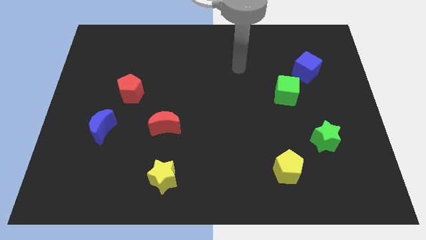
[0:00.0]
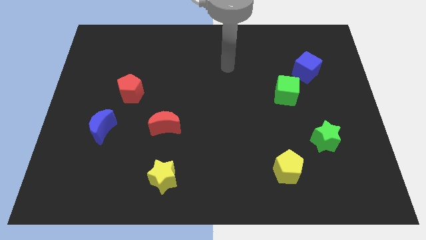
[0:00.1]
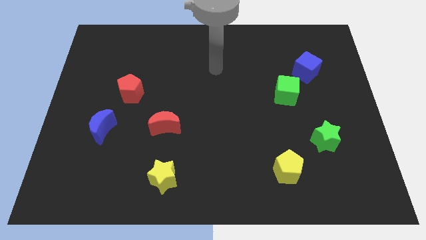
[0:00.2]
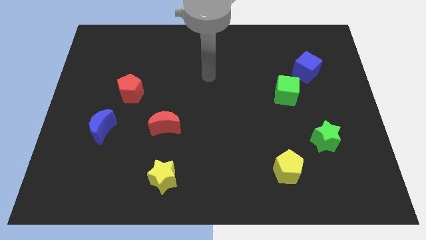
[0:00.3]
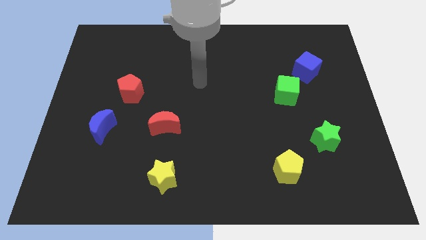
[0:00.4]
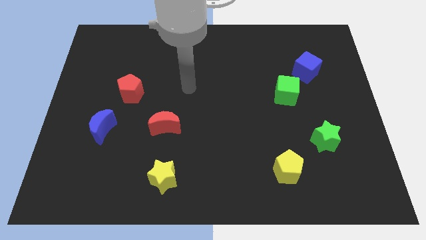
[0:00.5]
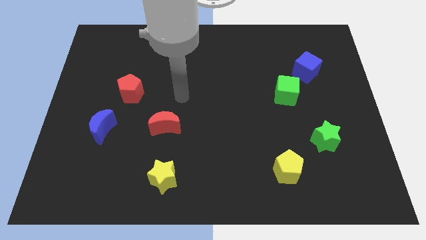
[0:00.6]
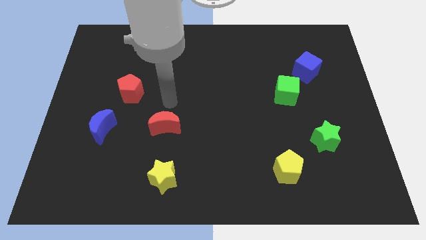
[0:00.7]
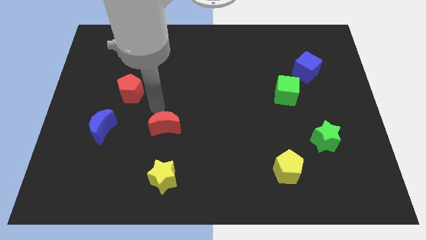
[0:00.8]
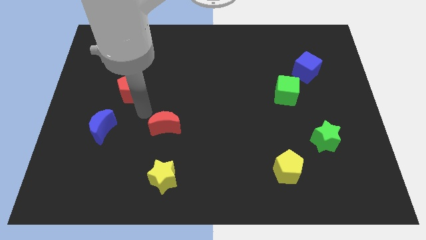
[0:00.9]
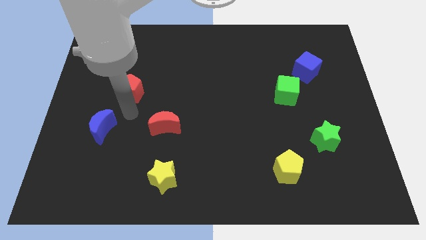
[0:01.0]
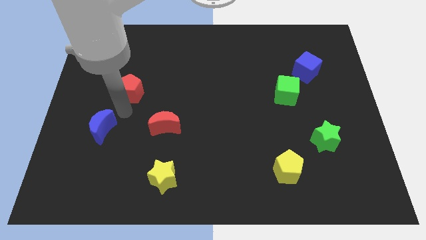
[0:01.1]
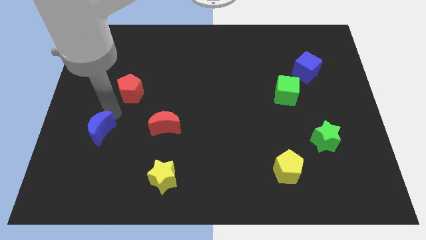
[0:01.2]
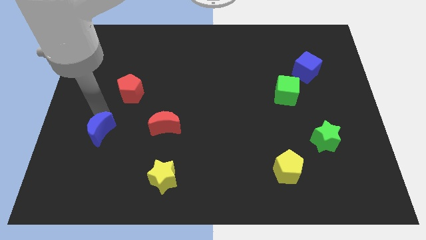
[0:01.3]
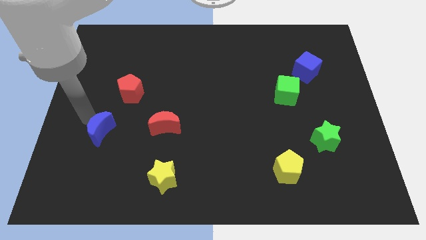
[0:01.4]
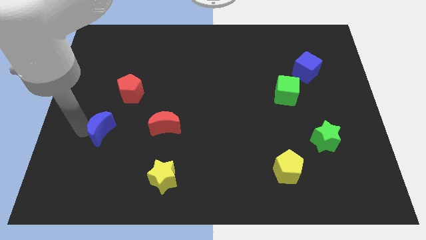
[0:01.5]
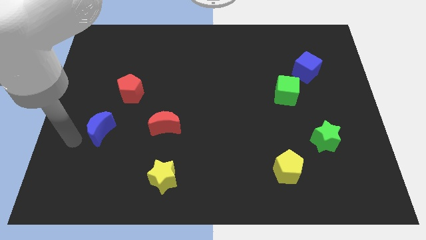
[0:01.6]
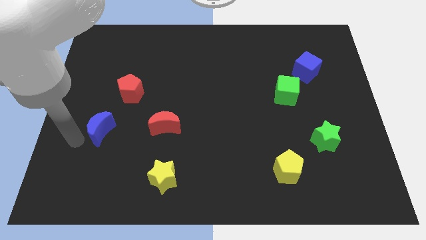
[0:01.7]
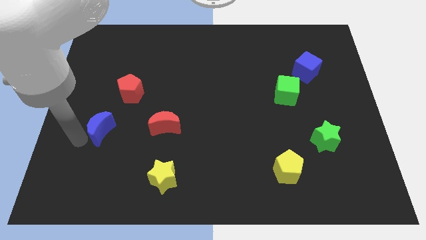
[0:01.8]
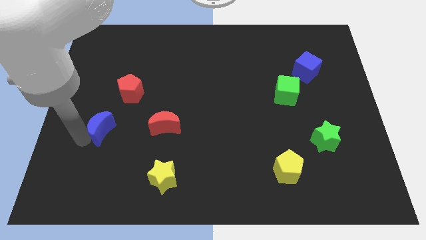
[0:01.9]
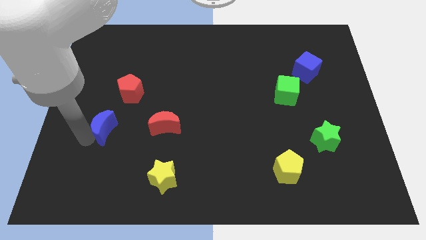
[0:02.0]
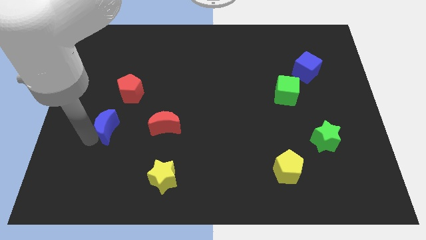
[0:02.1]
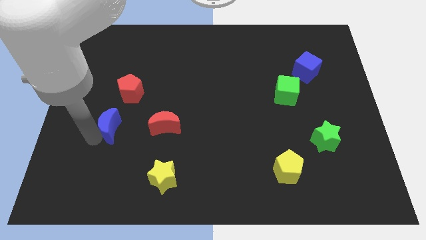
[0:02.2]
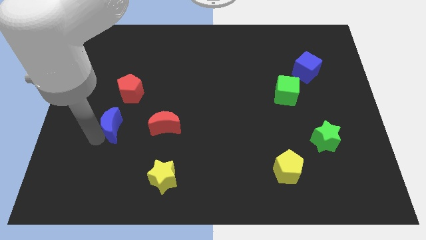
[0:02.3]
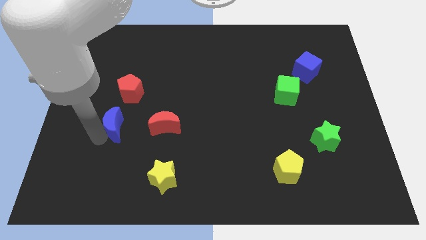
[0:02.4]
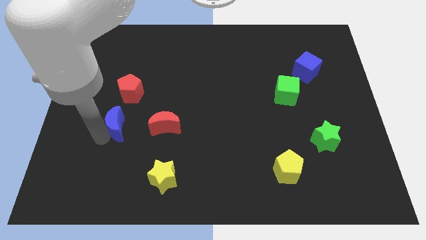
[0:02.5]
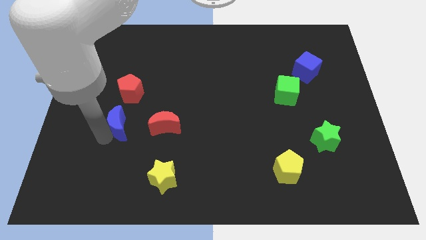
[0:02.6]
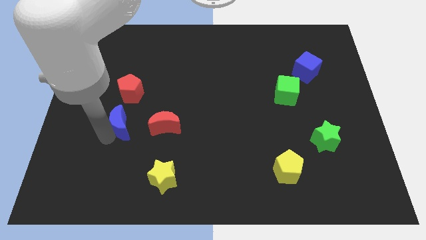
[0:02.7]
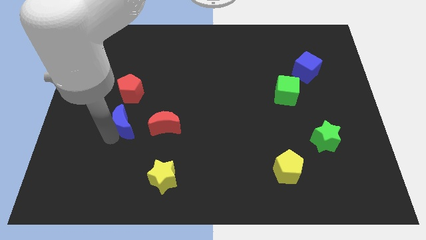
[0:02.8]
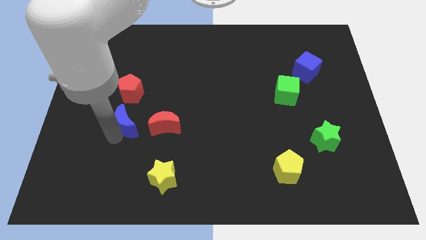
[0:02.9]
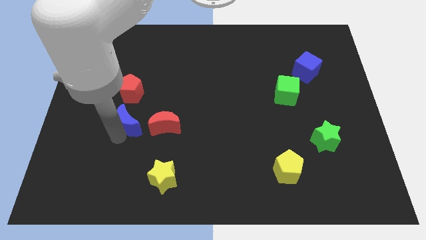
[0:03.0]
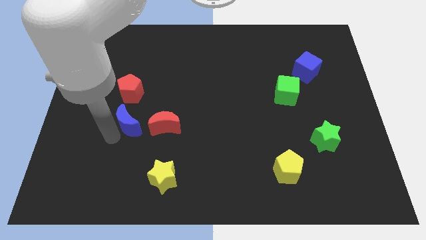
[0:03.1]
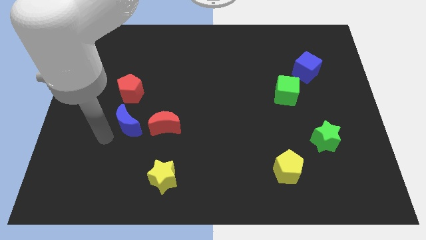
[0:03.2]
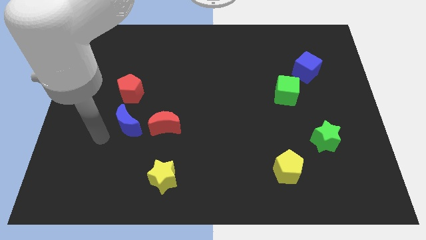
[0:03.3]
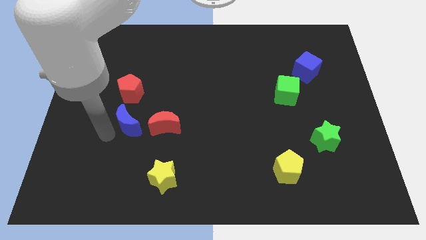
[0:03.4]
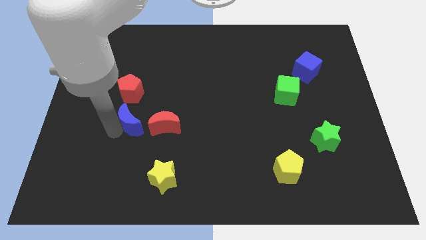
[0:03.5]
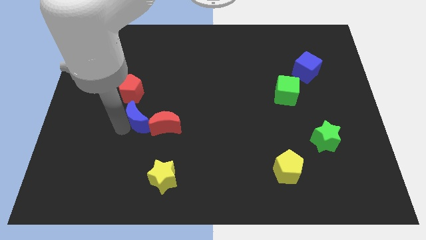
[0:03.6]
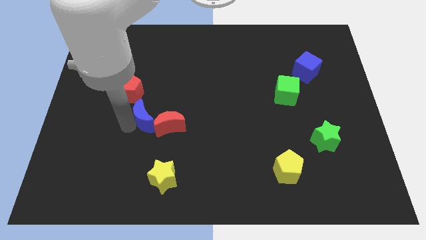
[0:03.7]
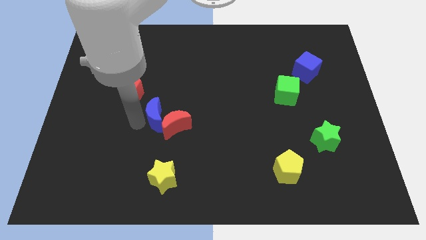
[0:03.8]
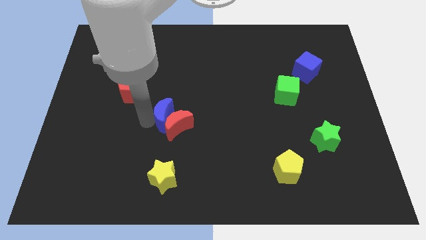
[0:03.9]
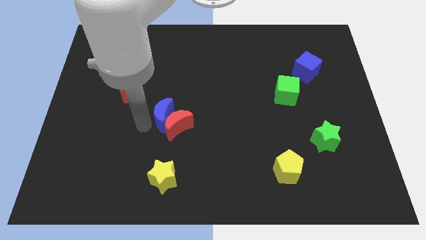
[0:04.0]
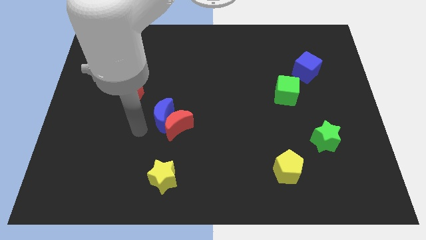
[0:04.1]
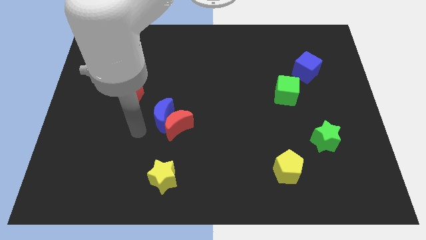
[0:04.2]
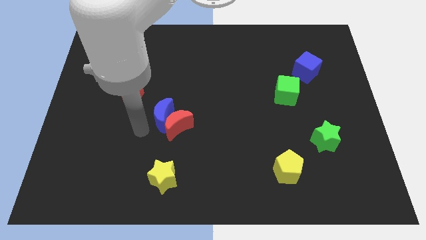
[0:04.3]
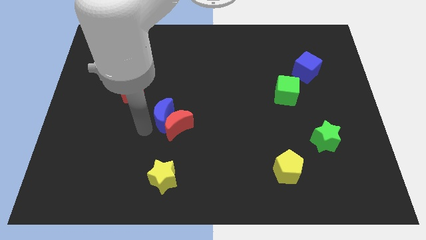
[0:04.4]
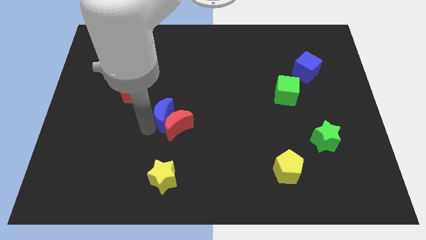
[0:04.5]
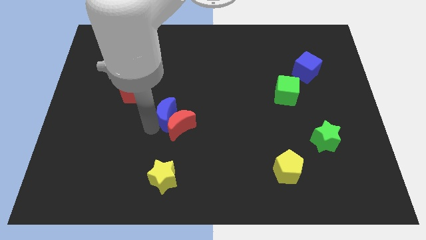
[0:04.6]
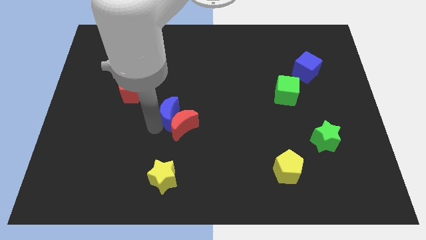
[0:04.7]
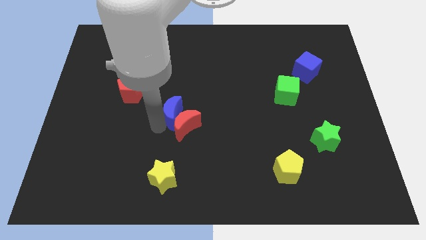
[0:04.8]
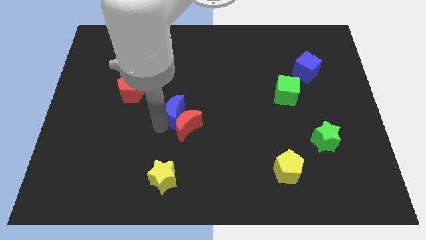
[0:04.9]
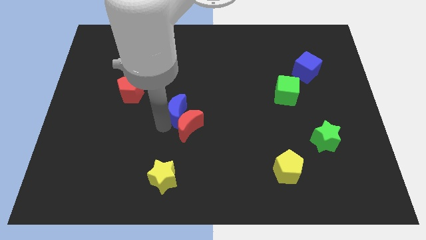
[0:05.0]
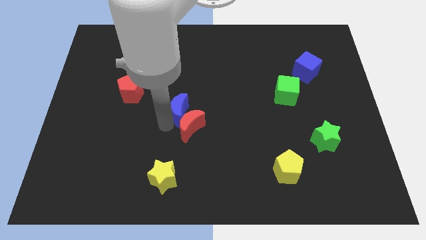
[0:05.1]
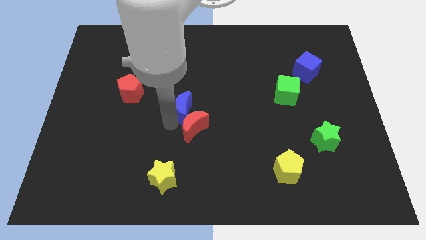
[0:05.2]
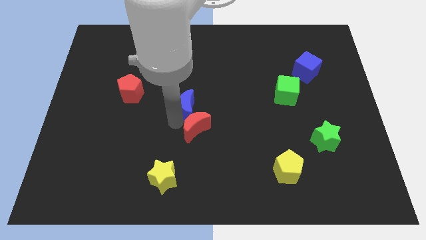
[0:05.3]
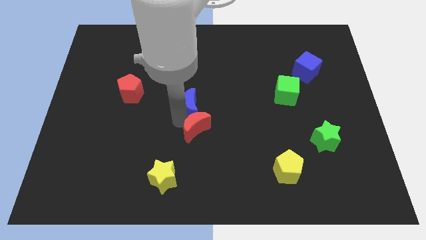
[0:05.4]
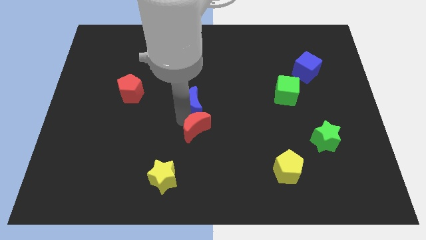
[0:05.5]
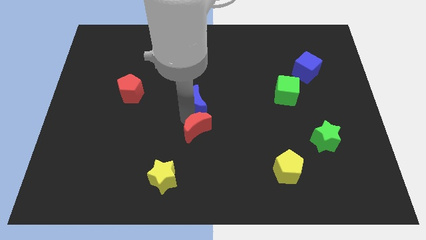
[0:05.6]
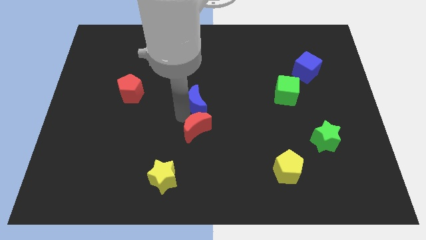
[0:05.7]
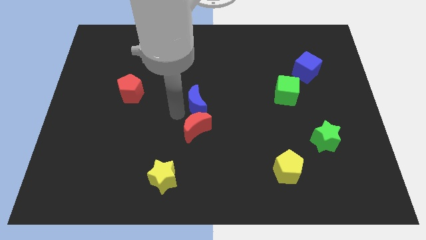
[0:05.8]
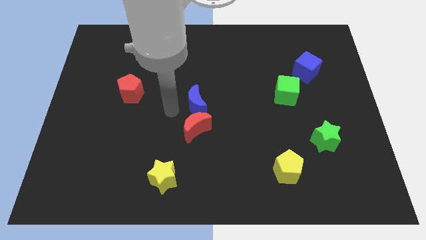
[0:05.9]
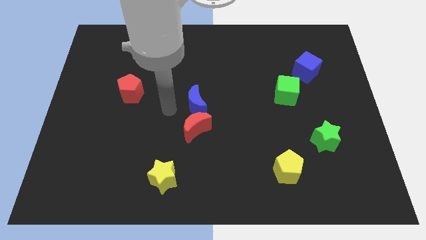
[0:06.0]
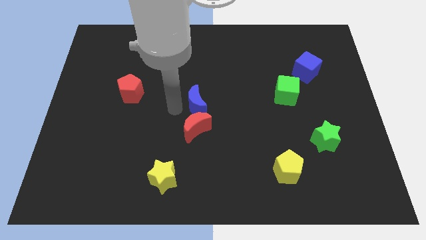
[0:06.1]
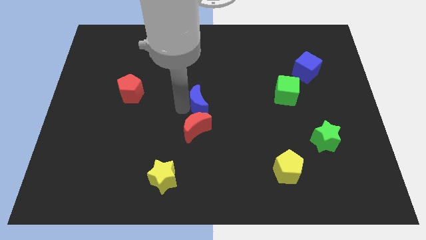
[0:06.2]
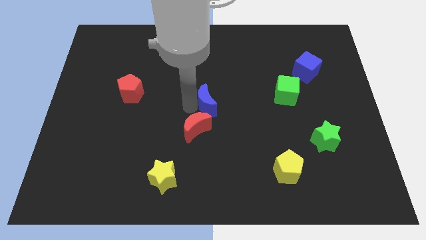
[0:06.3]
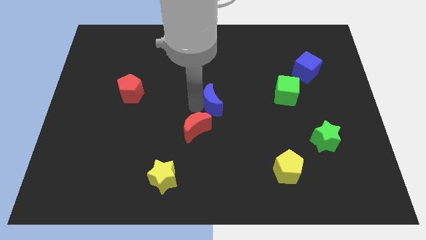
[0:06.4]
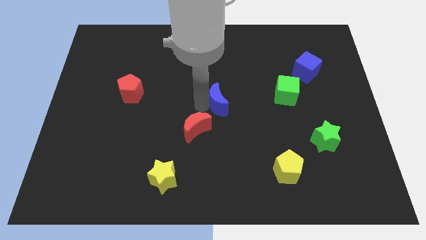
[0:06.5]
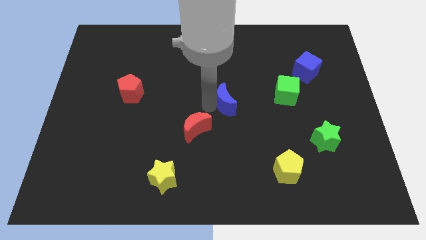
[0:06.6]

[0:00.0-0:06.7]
put the blue moon just left of the green cube

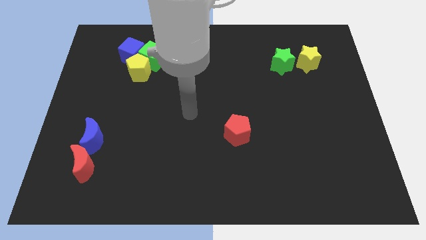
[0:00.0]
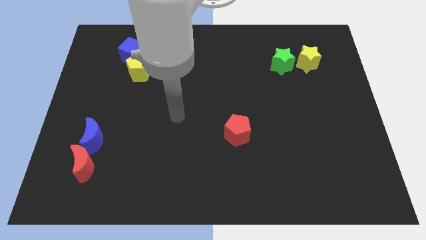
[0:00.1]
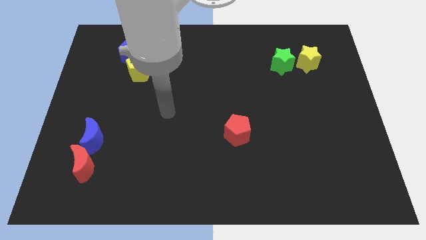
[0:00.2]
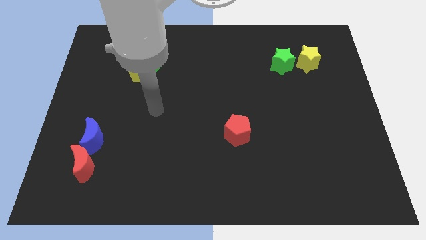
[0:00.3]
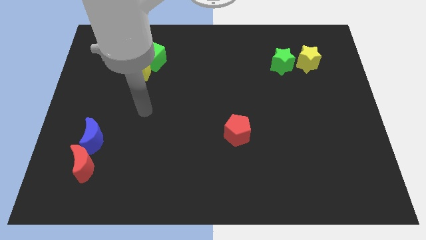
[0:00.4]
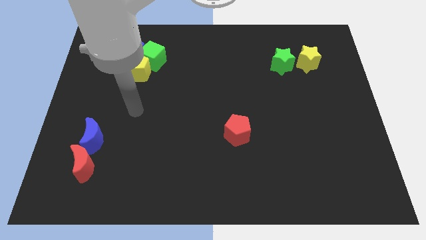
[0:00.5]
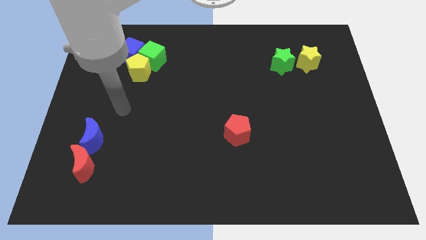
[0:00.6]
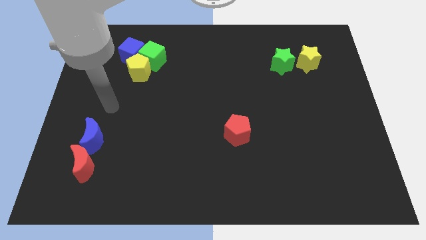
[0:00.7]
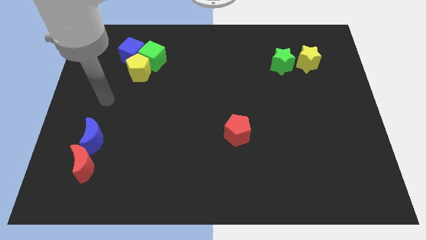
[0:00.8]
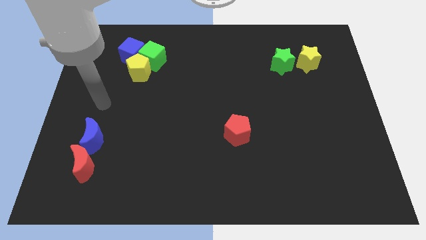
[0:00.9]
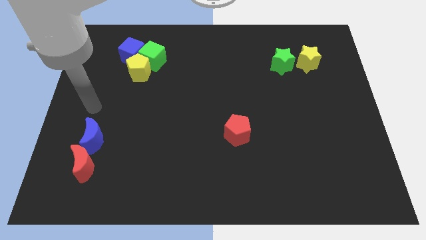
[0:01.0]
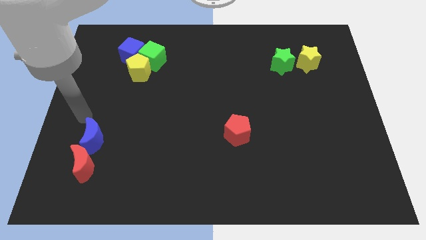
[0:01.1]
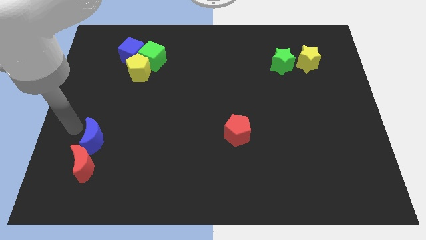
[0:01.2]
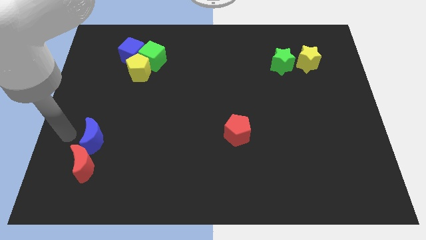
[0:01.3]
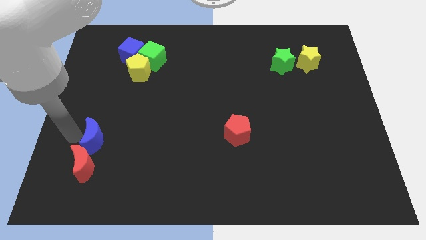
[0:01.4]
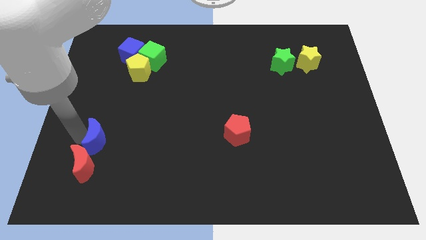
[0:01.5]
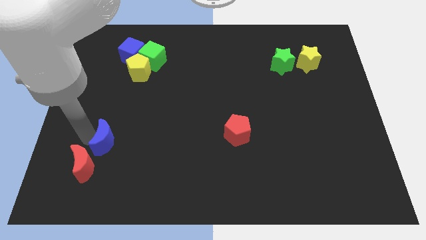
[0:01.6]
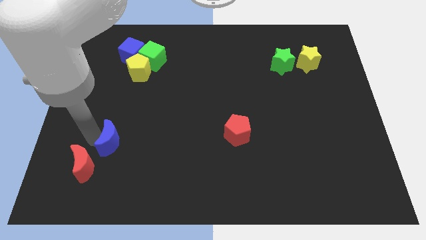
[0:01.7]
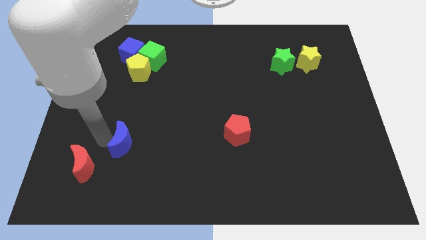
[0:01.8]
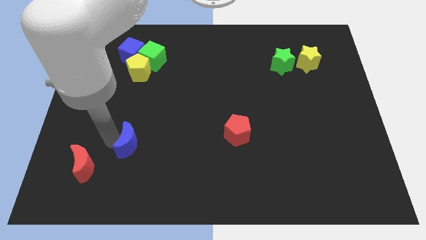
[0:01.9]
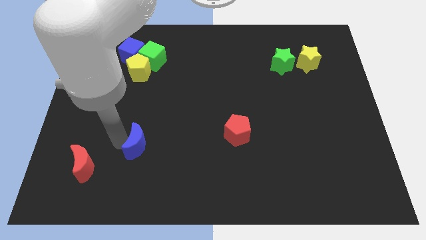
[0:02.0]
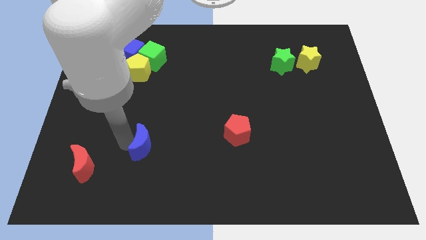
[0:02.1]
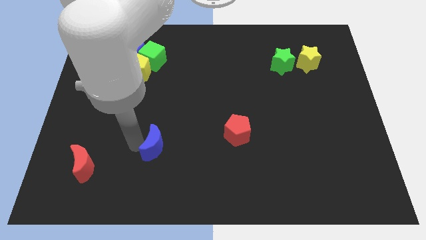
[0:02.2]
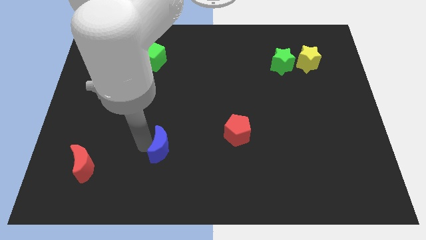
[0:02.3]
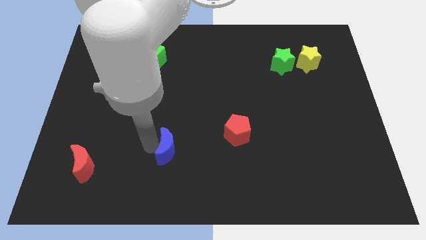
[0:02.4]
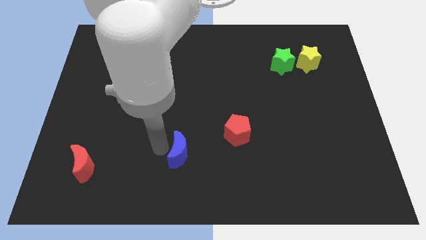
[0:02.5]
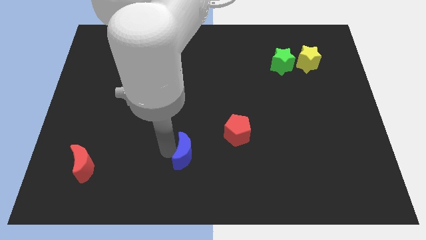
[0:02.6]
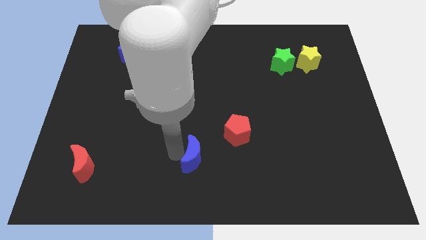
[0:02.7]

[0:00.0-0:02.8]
slide the blue moon diagonally down and to the left of the red pentagon
